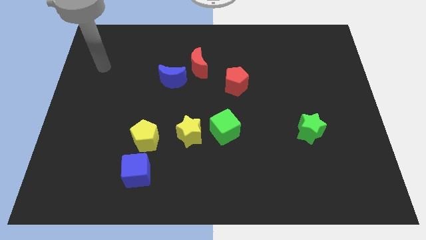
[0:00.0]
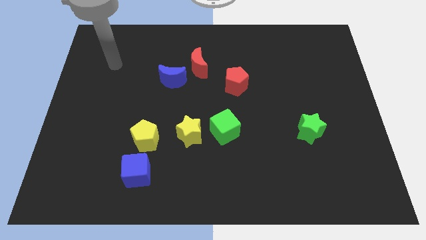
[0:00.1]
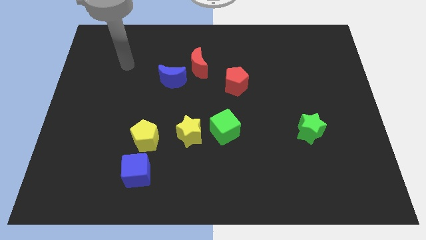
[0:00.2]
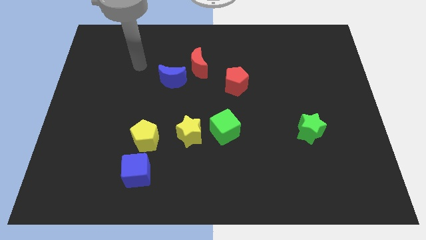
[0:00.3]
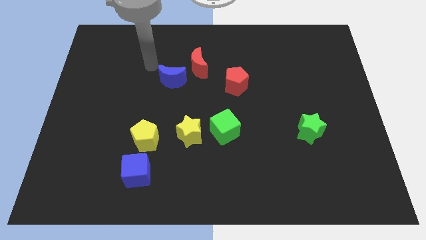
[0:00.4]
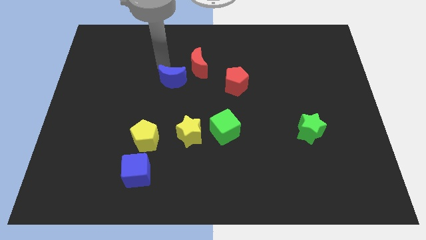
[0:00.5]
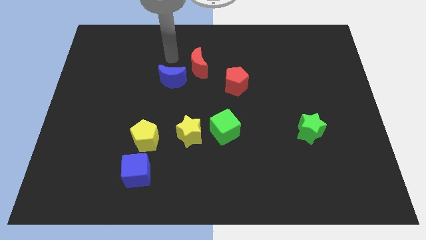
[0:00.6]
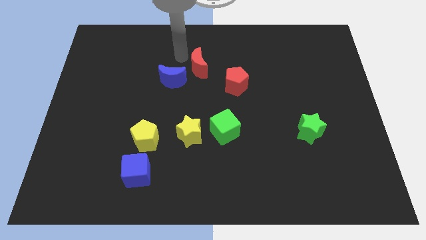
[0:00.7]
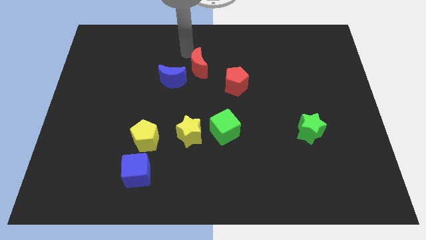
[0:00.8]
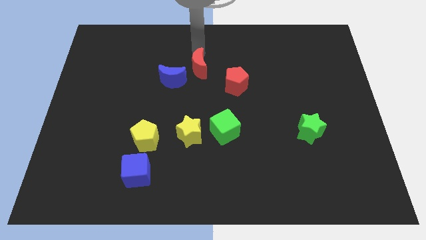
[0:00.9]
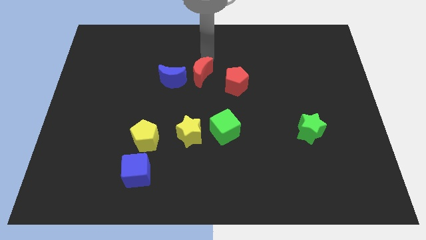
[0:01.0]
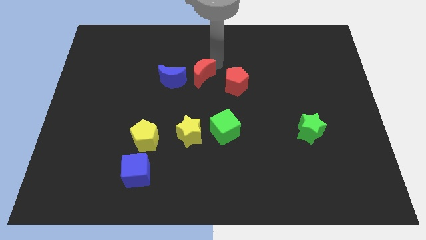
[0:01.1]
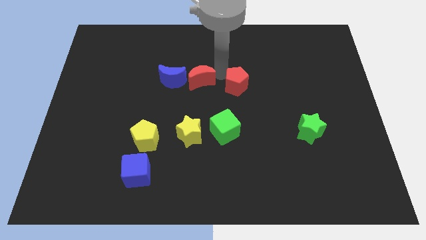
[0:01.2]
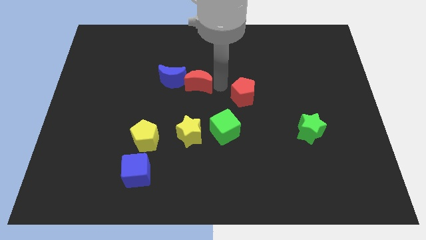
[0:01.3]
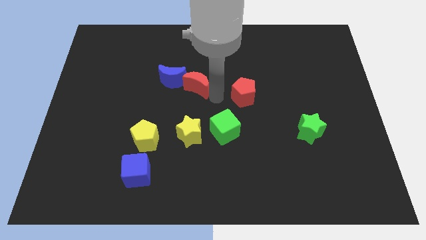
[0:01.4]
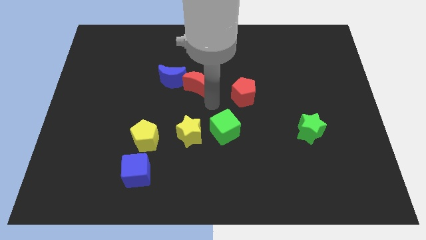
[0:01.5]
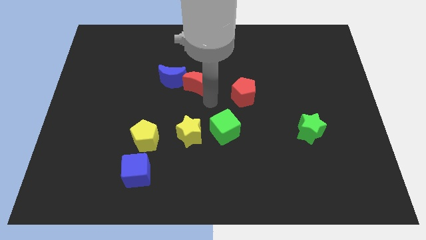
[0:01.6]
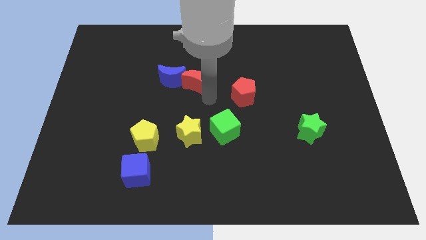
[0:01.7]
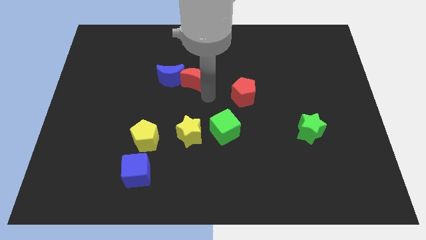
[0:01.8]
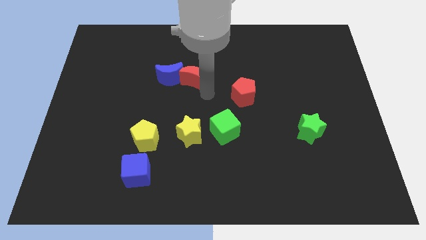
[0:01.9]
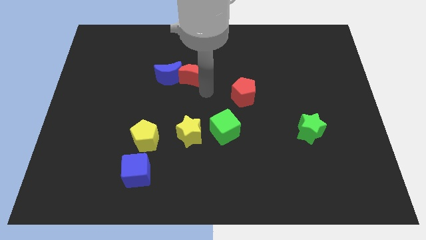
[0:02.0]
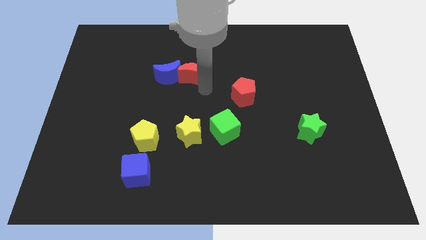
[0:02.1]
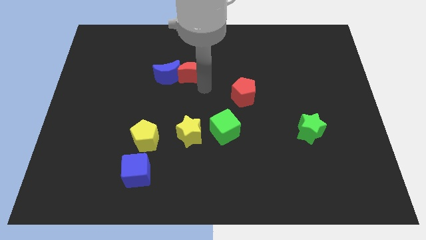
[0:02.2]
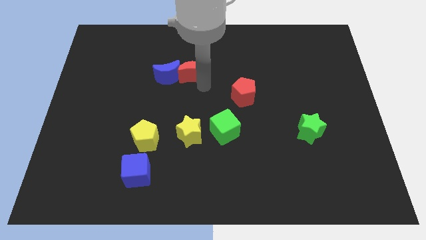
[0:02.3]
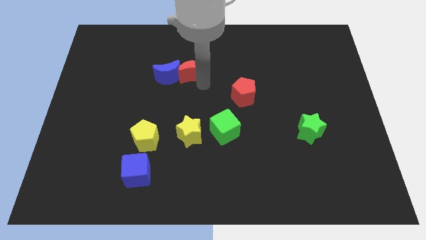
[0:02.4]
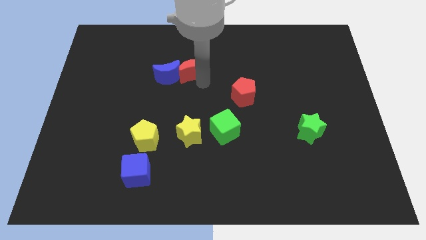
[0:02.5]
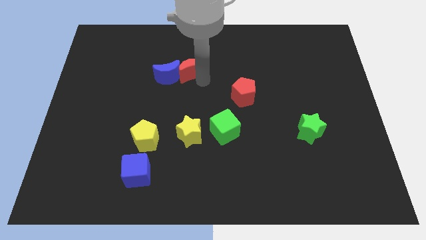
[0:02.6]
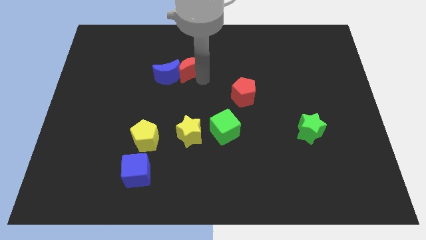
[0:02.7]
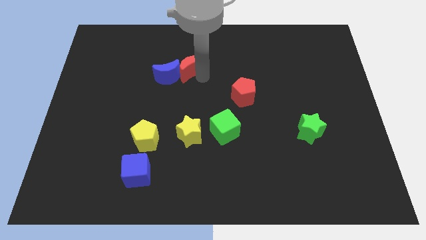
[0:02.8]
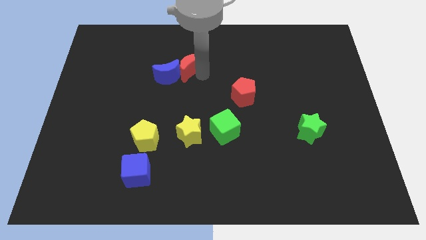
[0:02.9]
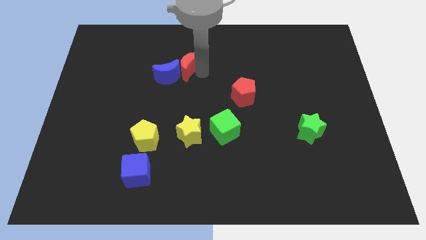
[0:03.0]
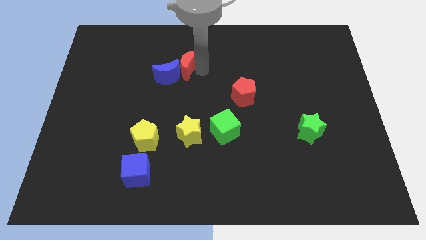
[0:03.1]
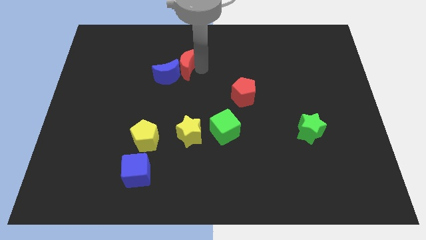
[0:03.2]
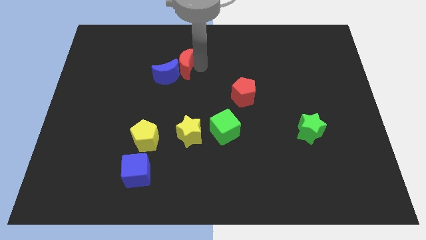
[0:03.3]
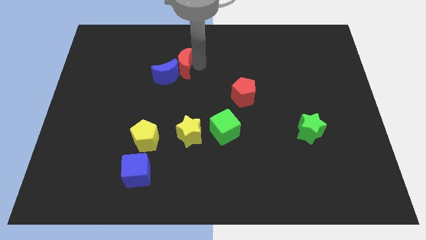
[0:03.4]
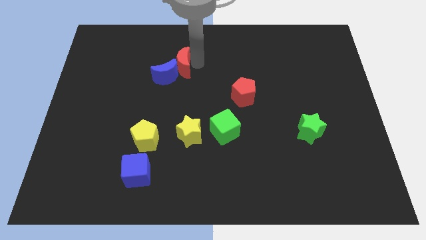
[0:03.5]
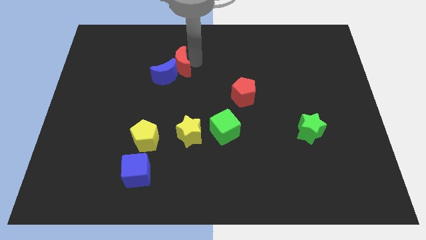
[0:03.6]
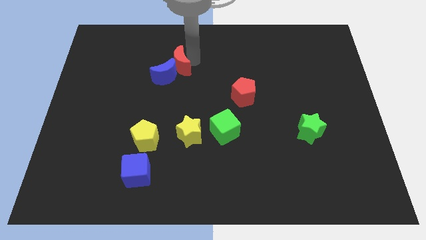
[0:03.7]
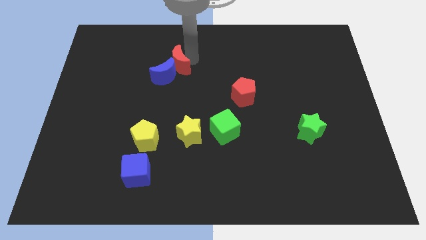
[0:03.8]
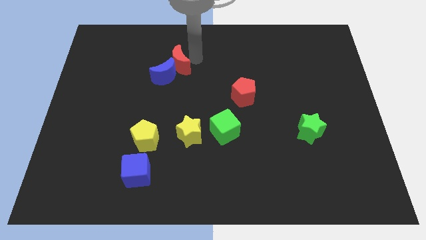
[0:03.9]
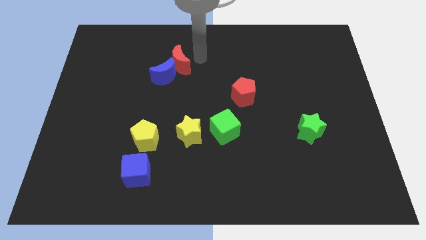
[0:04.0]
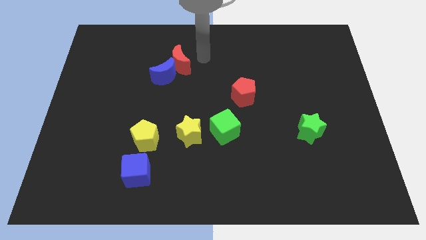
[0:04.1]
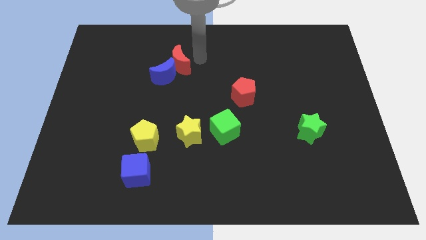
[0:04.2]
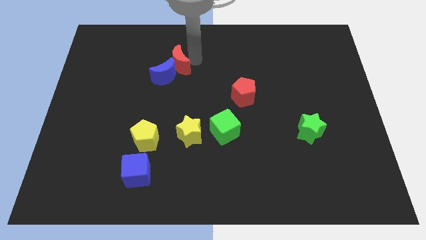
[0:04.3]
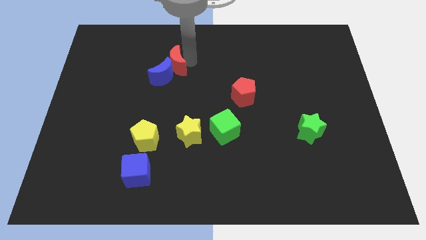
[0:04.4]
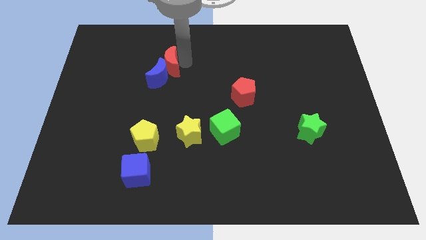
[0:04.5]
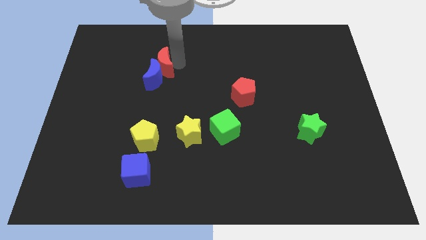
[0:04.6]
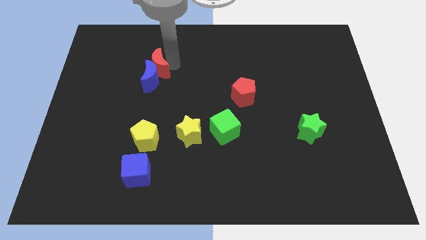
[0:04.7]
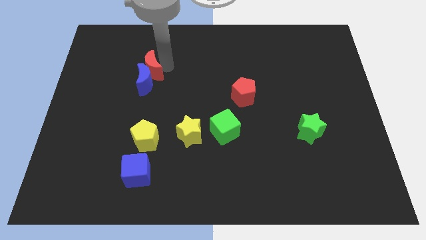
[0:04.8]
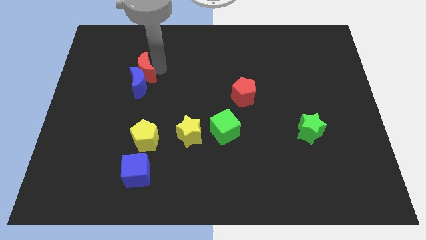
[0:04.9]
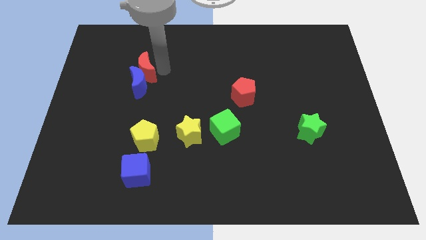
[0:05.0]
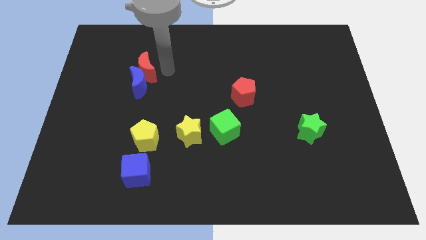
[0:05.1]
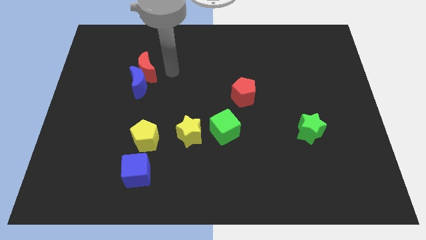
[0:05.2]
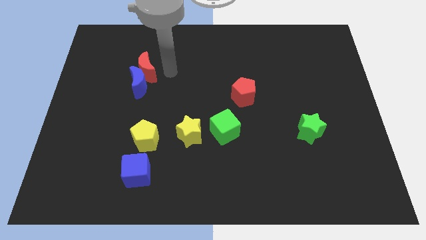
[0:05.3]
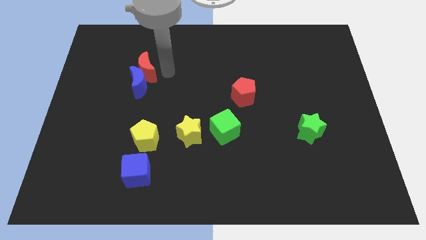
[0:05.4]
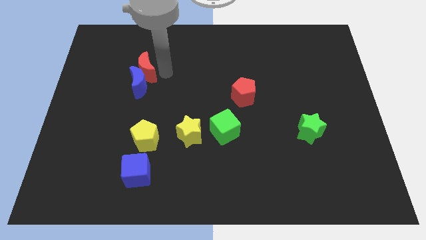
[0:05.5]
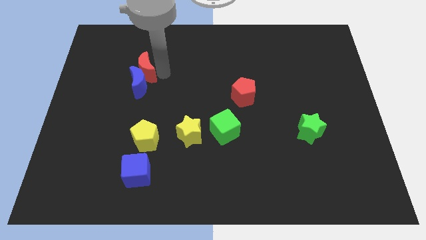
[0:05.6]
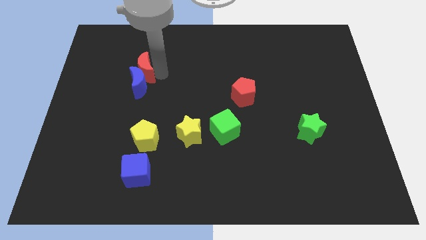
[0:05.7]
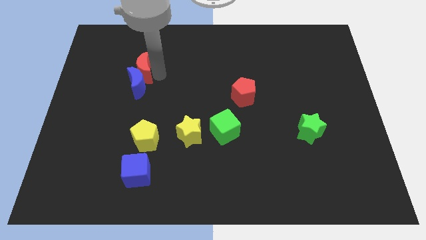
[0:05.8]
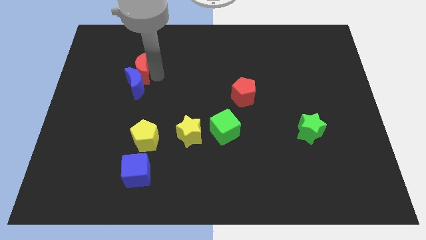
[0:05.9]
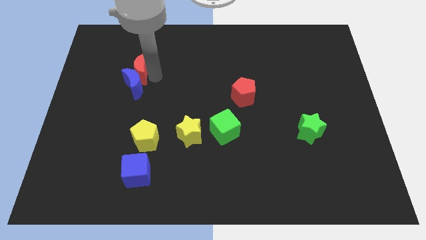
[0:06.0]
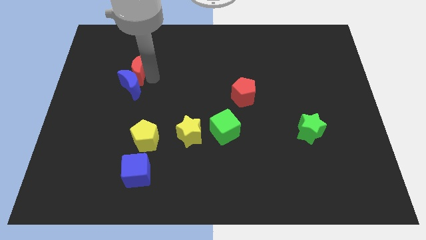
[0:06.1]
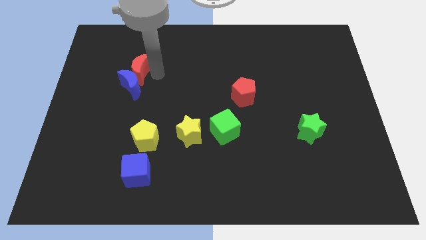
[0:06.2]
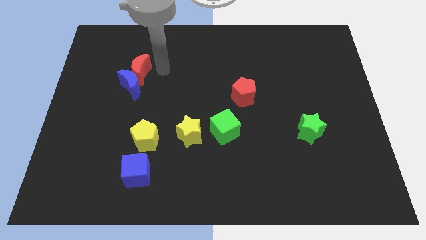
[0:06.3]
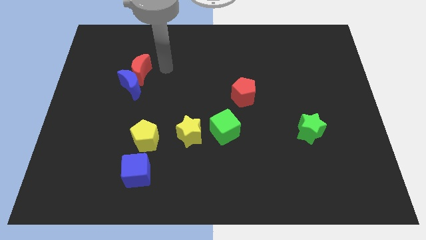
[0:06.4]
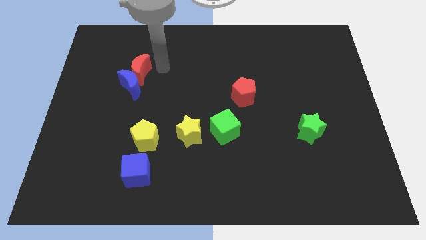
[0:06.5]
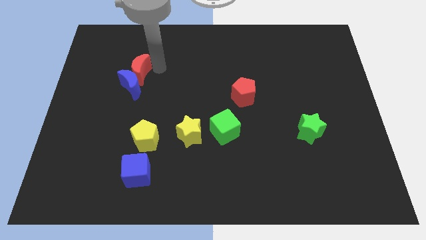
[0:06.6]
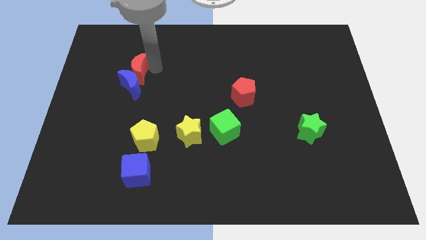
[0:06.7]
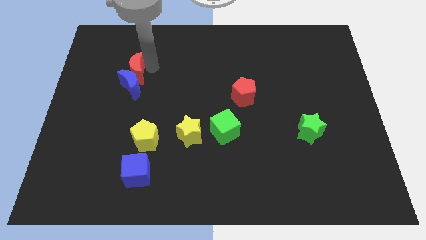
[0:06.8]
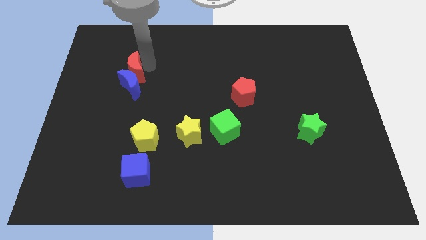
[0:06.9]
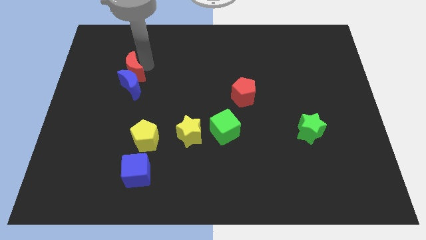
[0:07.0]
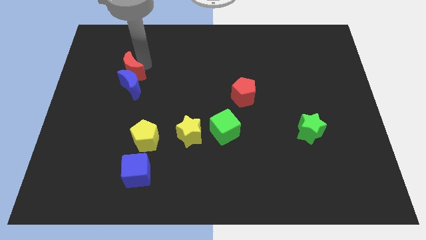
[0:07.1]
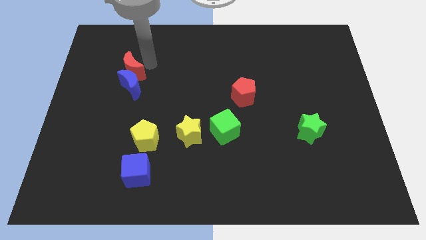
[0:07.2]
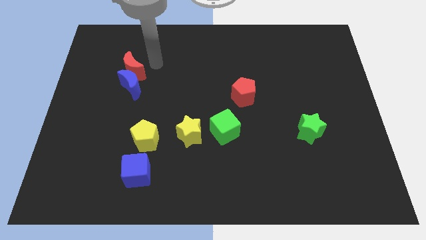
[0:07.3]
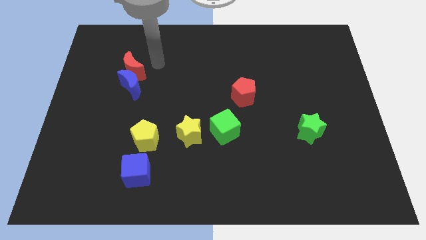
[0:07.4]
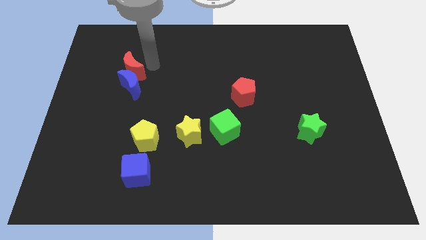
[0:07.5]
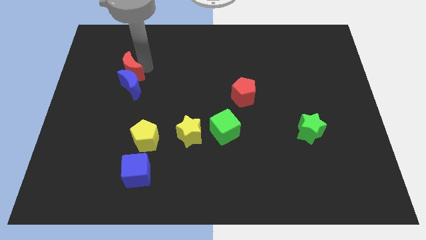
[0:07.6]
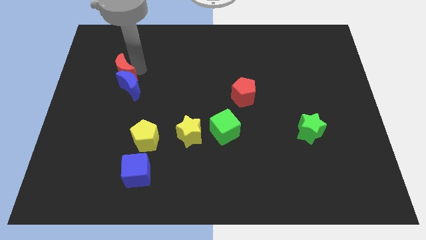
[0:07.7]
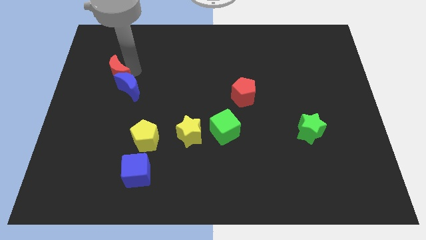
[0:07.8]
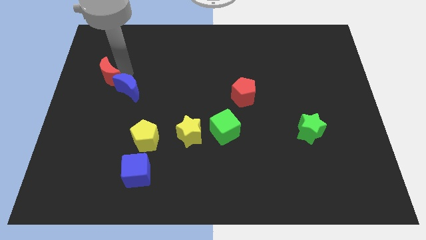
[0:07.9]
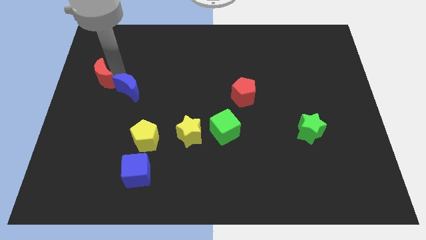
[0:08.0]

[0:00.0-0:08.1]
move the red moon to the center left
